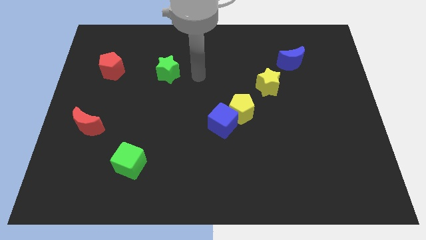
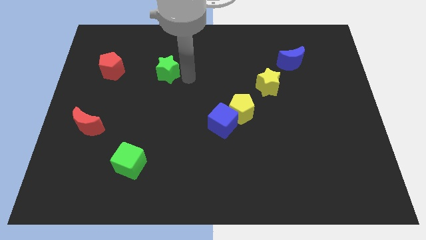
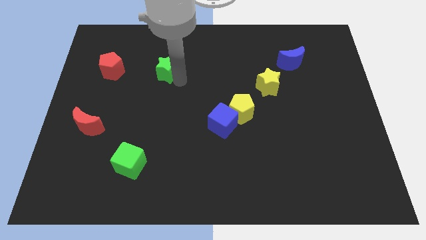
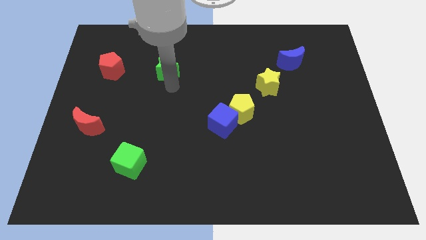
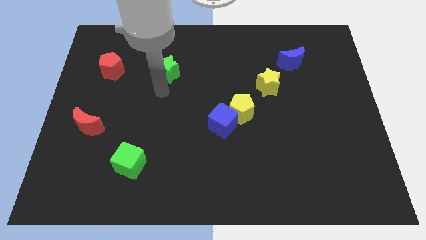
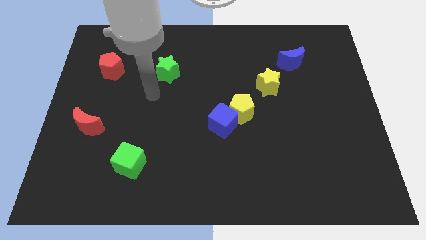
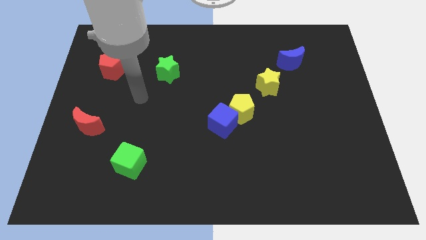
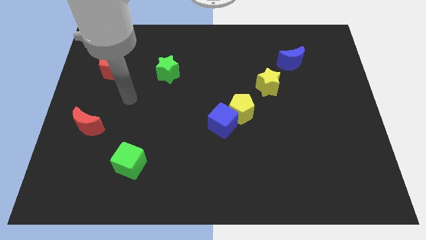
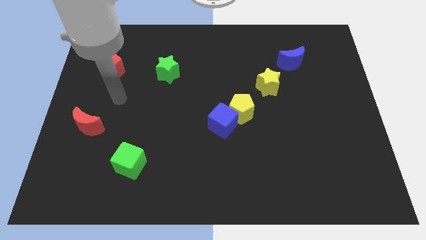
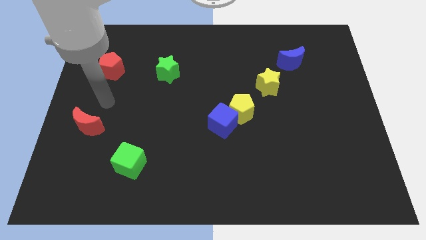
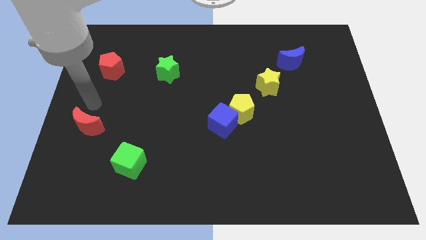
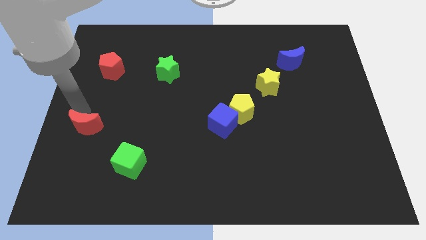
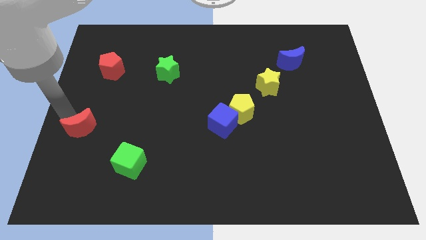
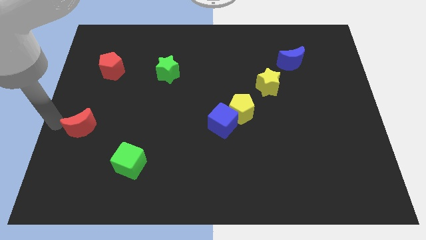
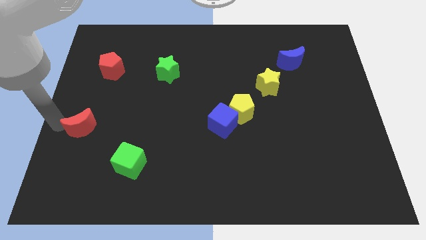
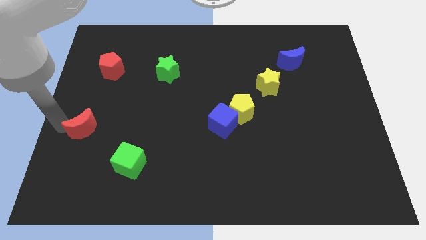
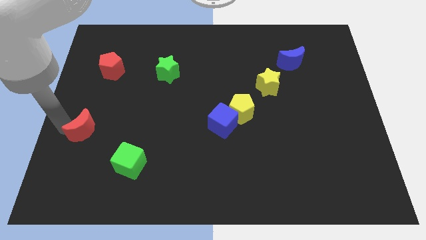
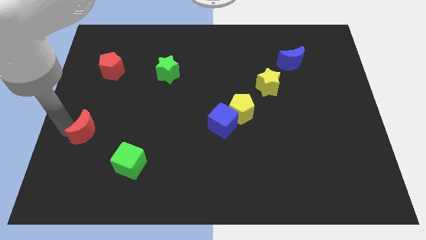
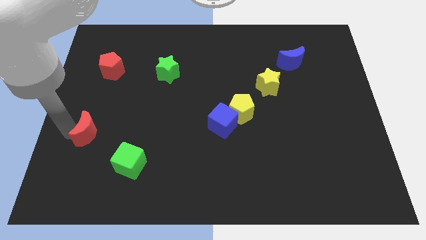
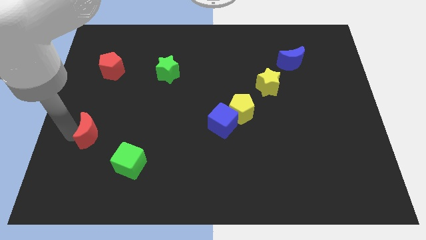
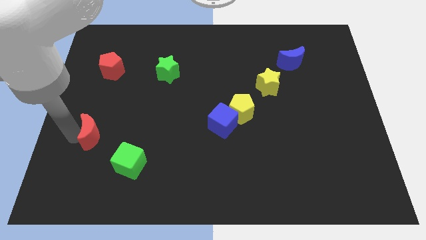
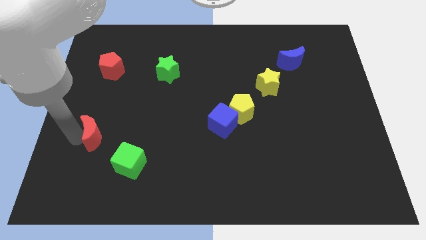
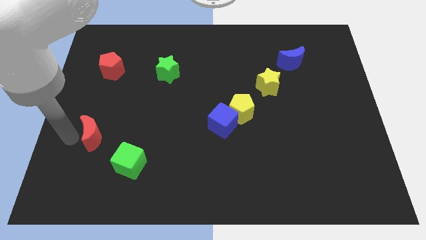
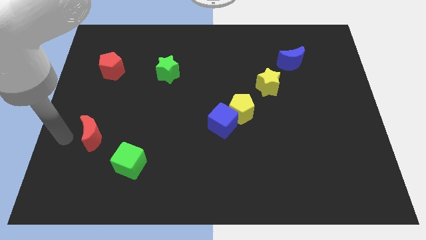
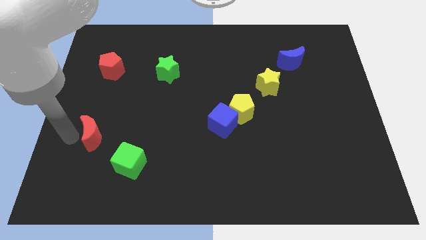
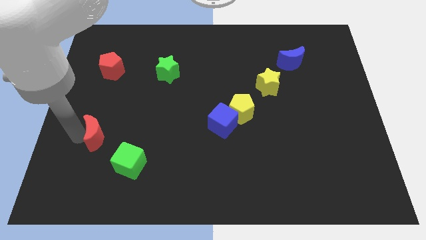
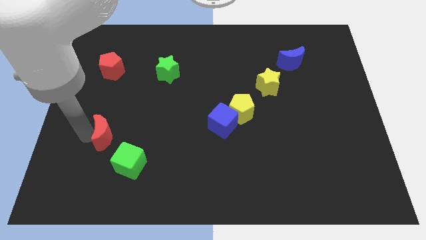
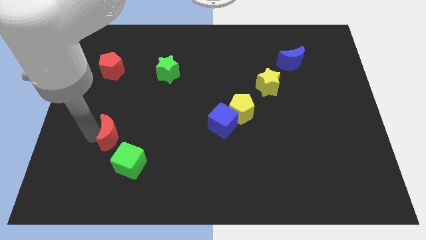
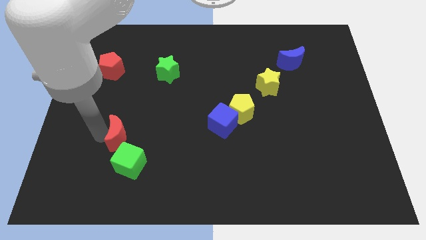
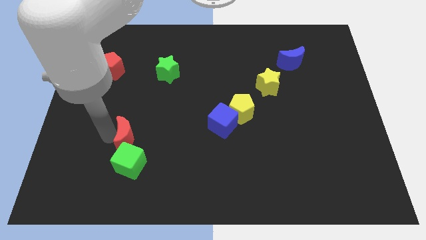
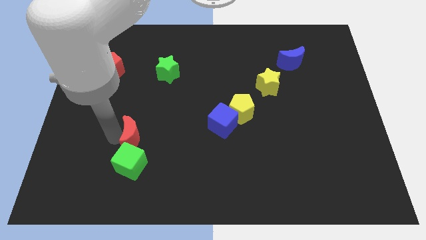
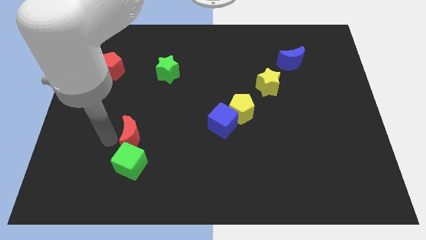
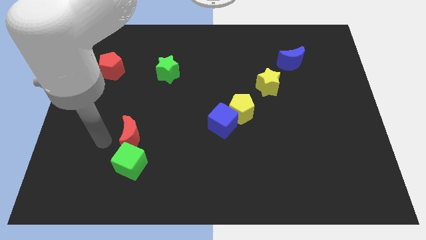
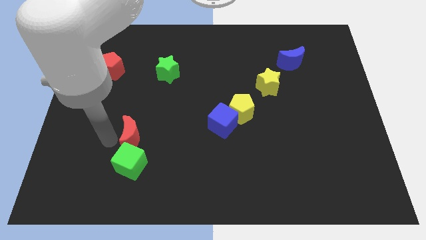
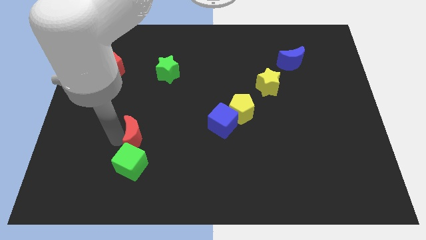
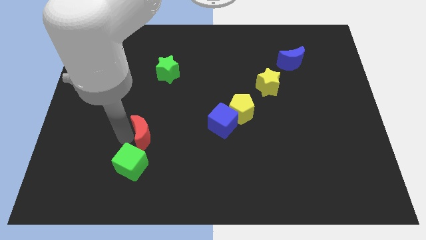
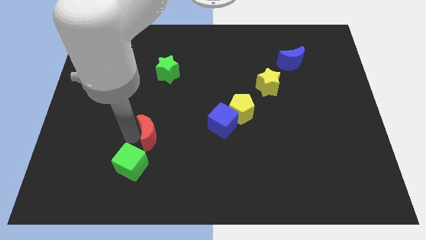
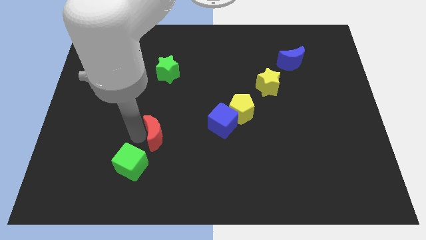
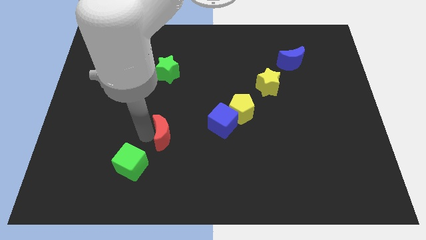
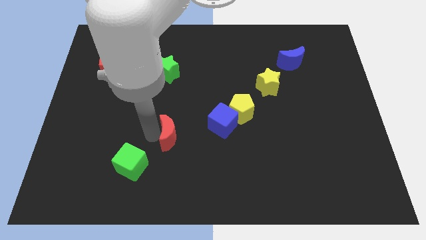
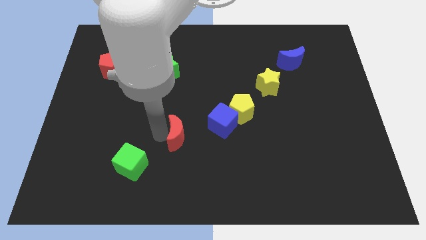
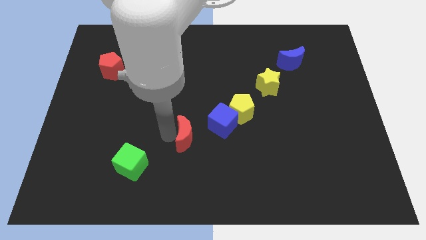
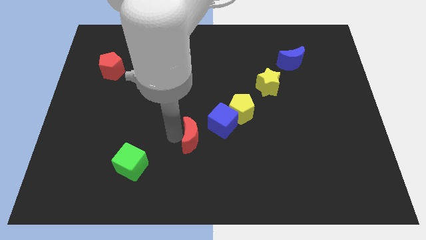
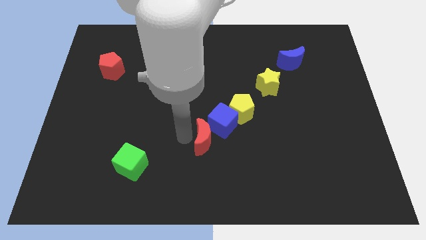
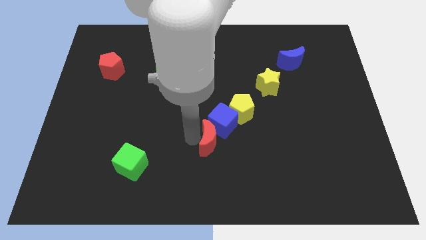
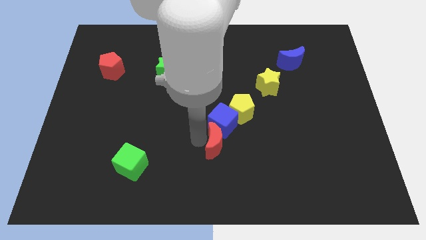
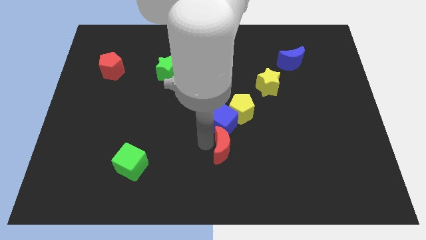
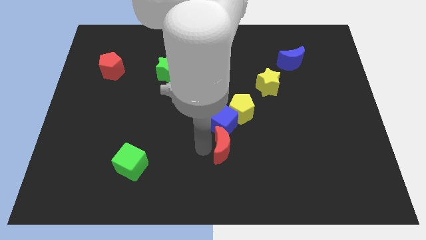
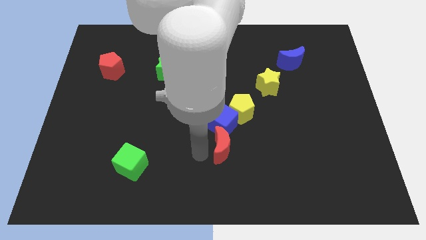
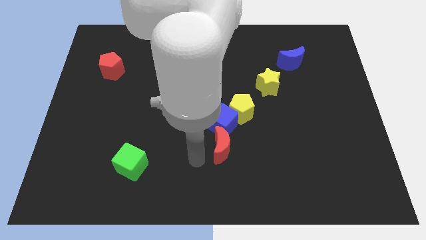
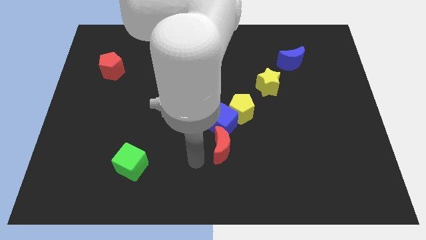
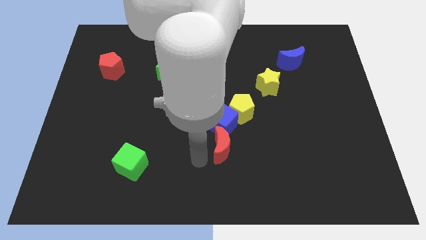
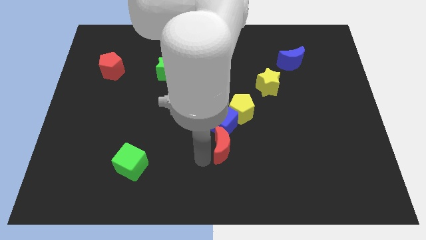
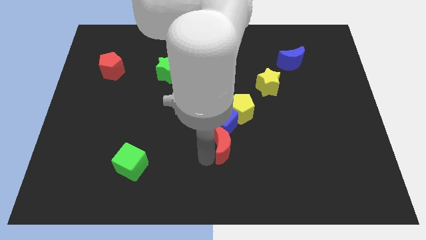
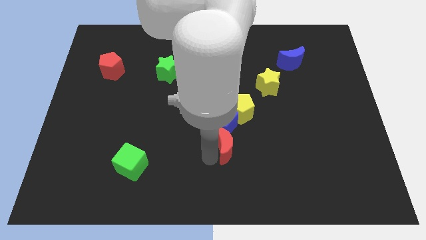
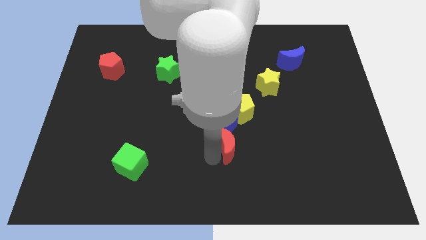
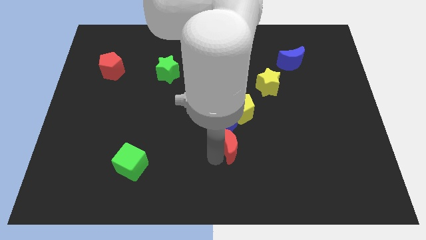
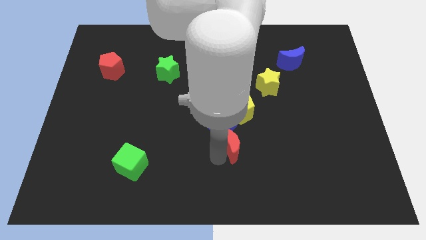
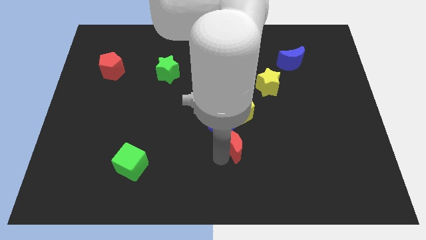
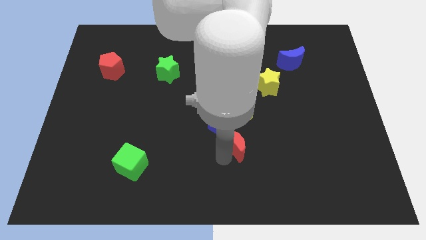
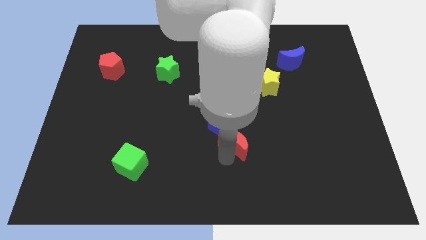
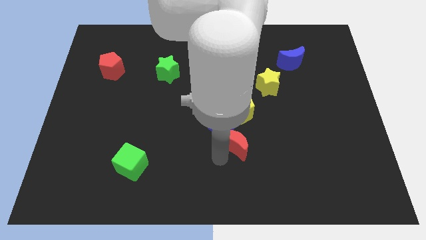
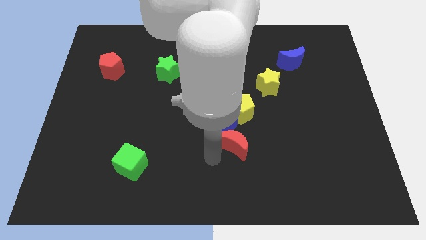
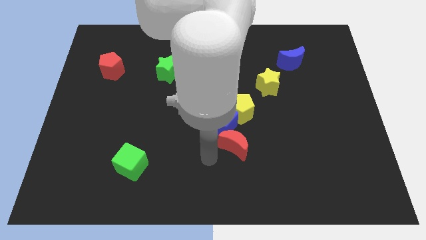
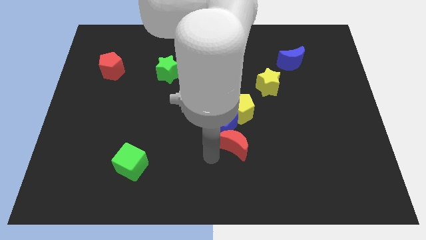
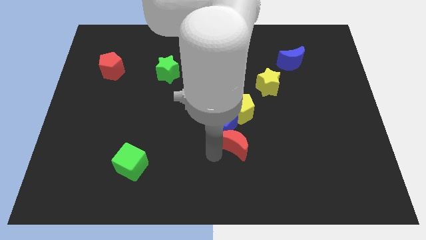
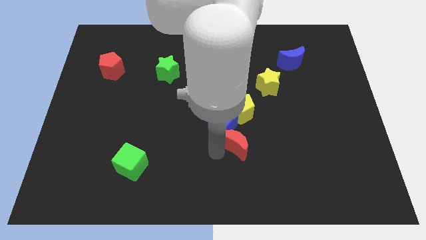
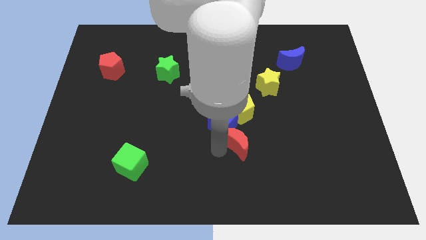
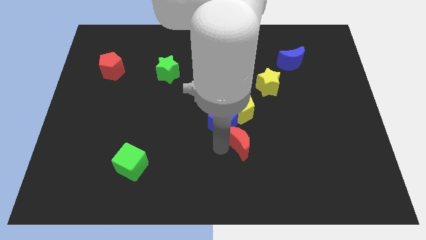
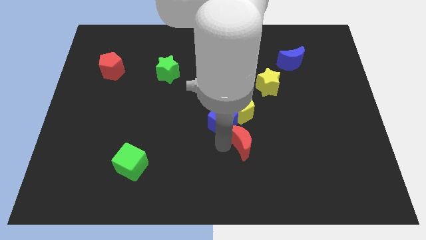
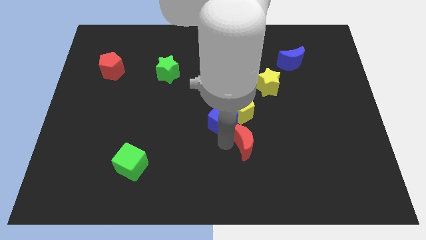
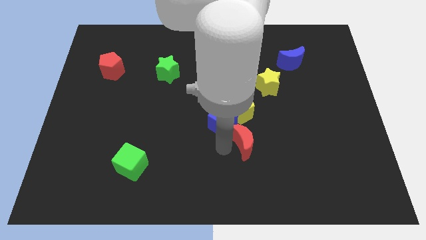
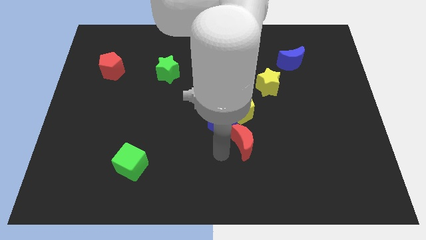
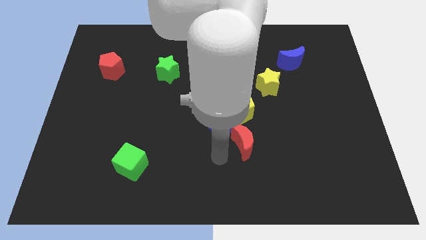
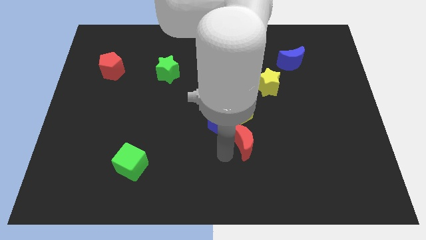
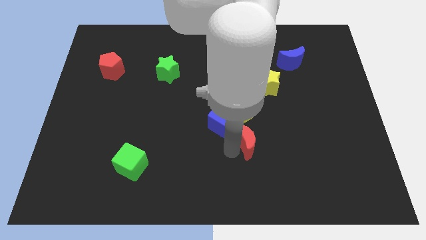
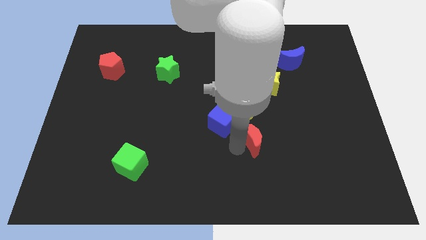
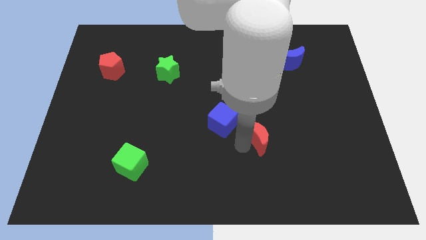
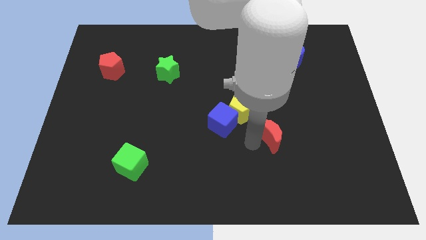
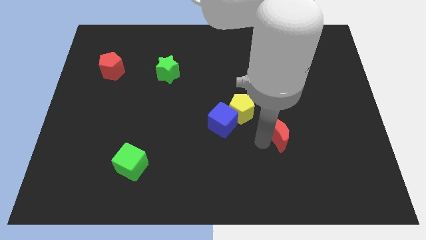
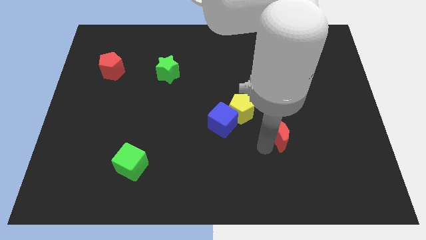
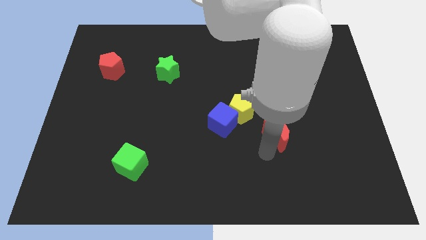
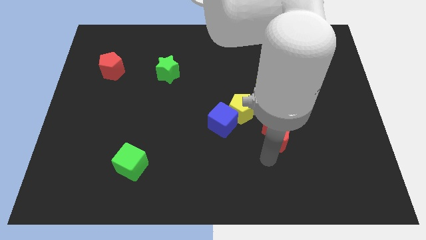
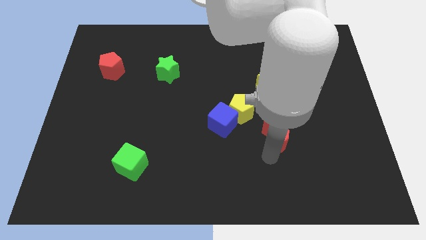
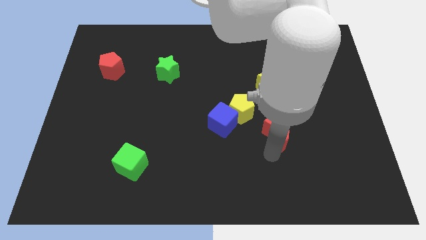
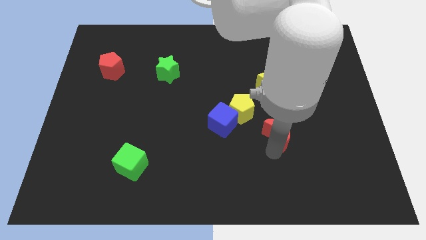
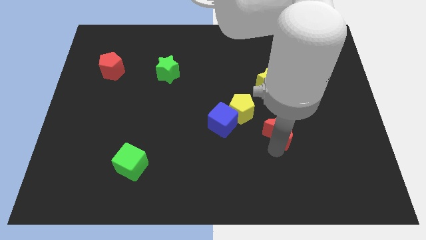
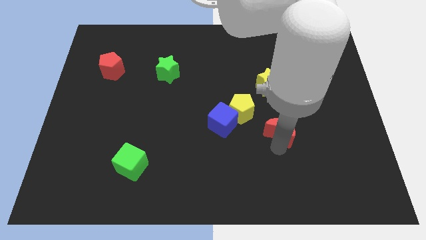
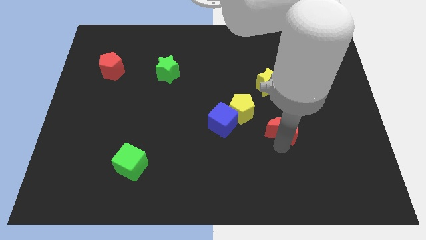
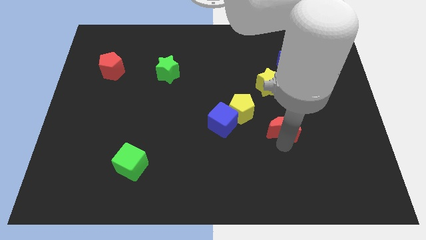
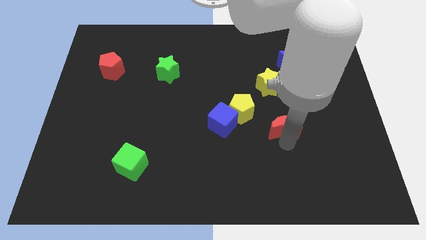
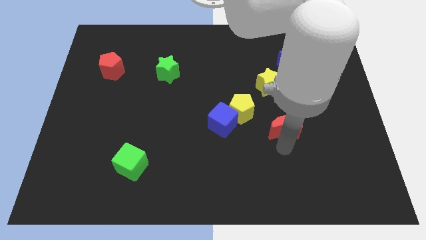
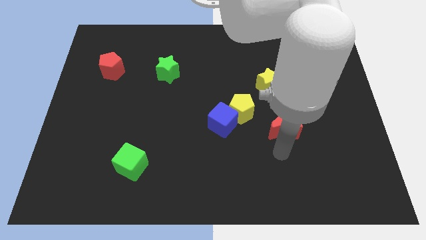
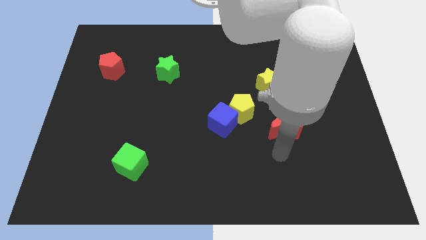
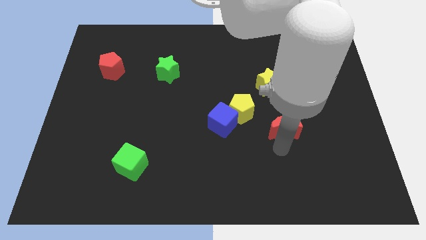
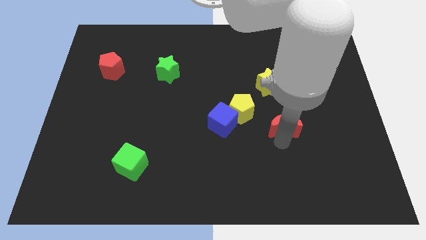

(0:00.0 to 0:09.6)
put the red moon just right of the yellow pentagon
